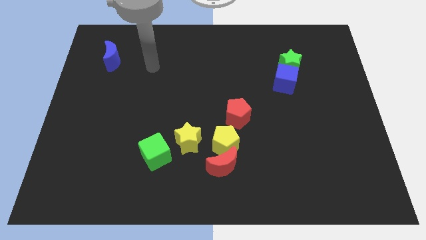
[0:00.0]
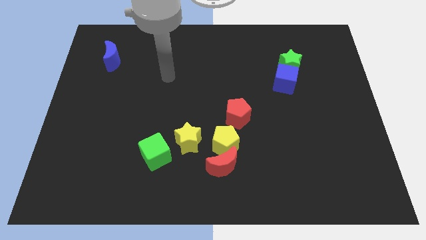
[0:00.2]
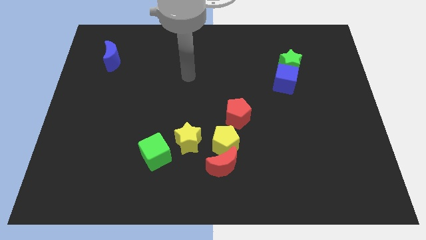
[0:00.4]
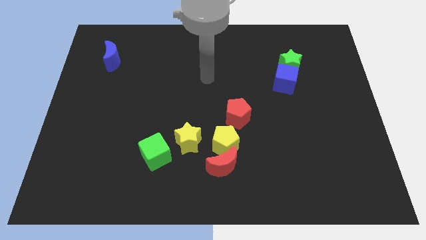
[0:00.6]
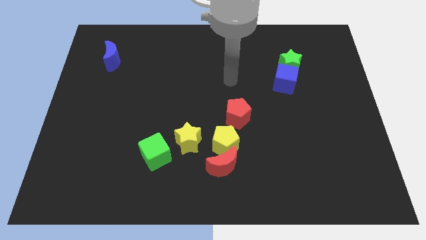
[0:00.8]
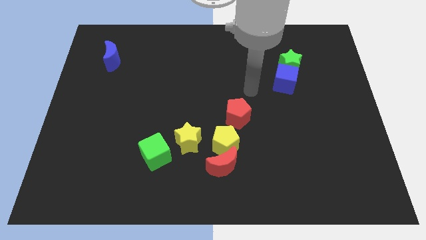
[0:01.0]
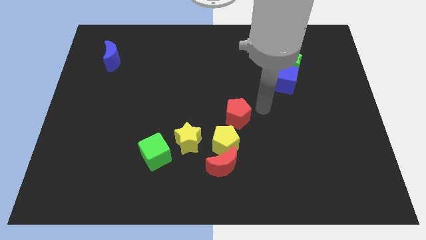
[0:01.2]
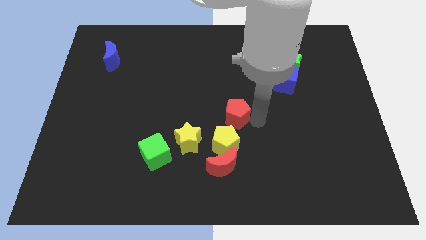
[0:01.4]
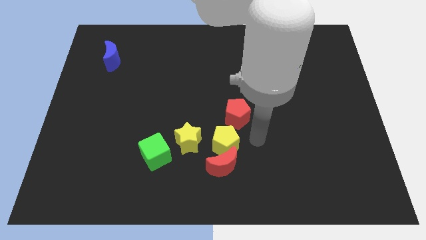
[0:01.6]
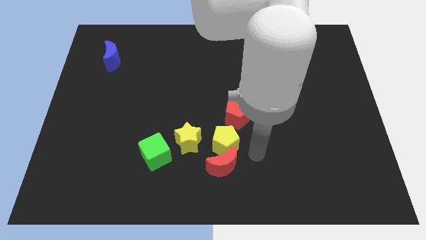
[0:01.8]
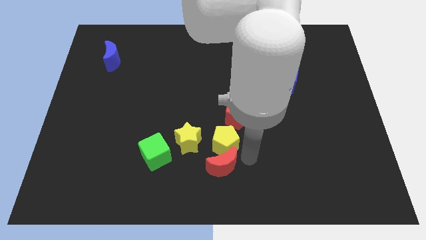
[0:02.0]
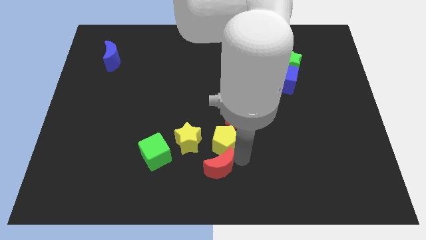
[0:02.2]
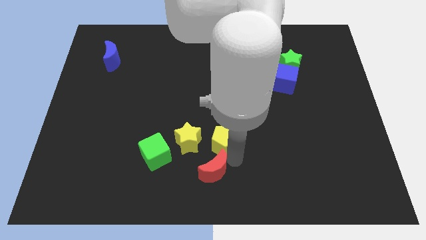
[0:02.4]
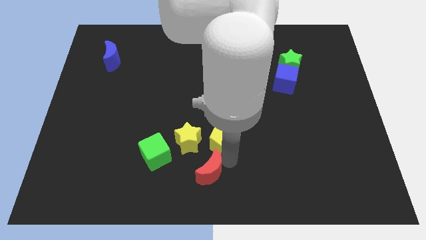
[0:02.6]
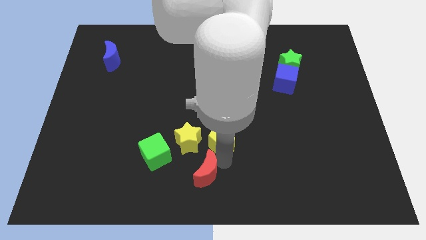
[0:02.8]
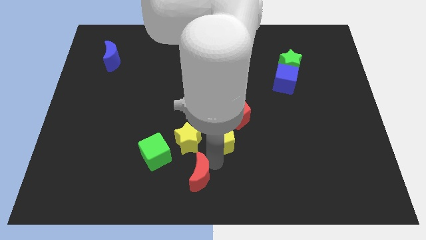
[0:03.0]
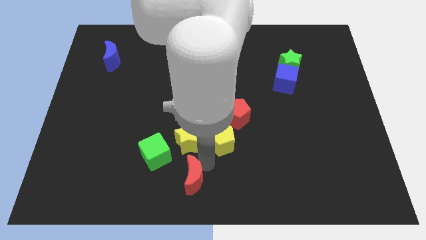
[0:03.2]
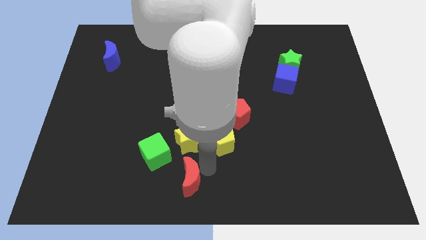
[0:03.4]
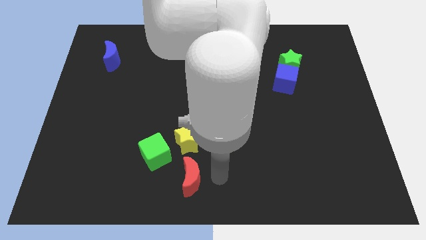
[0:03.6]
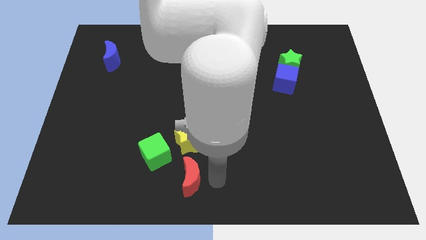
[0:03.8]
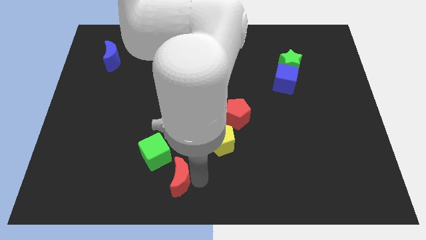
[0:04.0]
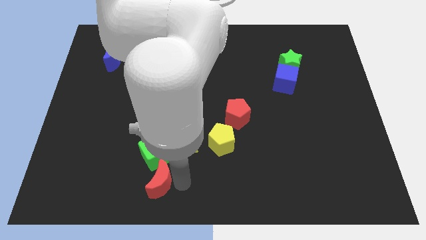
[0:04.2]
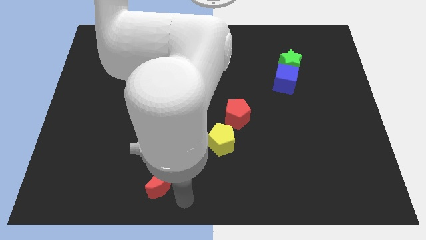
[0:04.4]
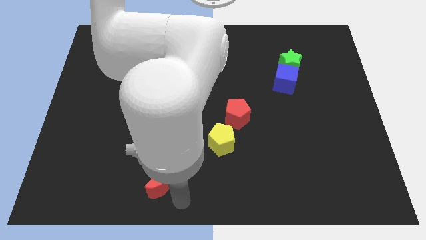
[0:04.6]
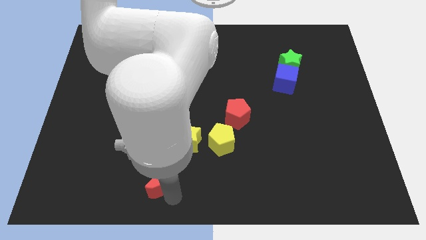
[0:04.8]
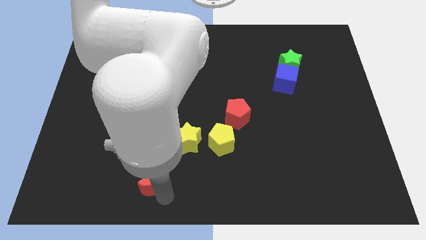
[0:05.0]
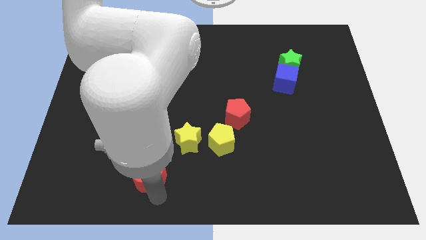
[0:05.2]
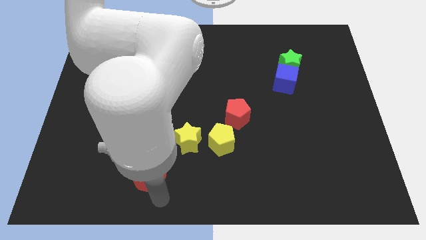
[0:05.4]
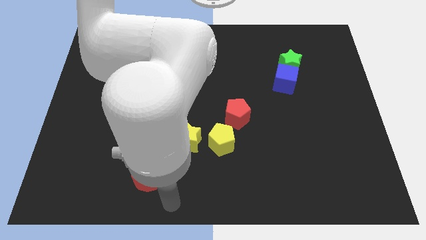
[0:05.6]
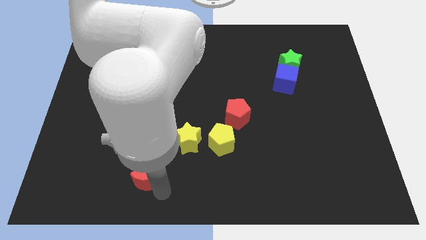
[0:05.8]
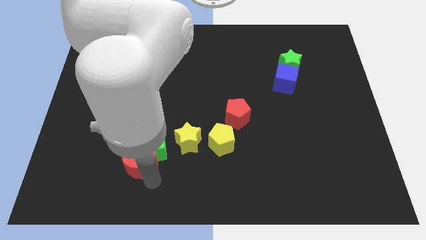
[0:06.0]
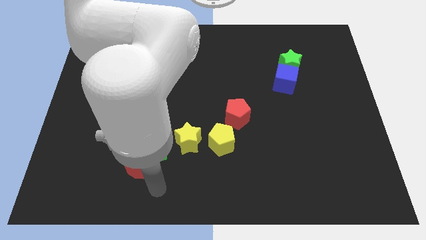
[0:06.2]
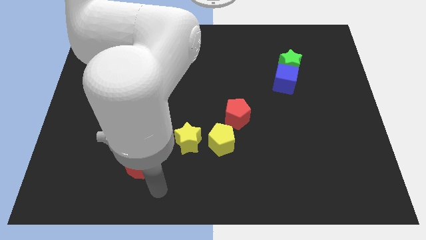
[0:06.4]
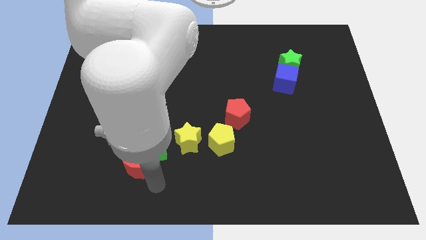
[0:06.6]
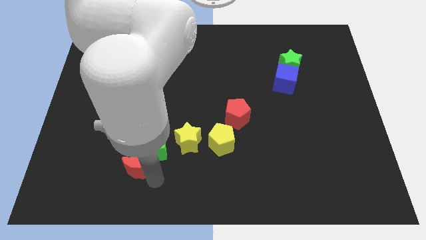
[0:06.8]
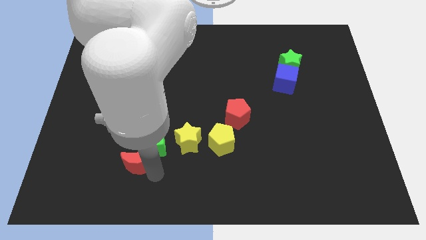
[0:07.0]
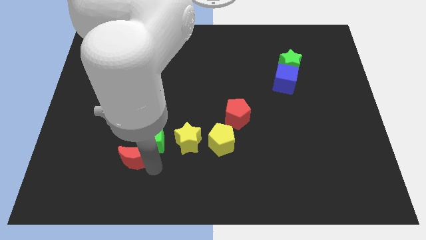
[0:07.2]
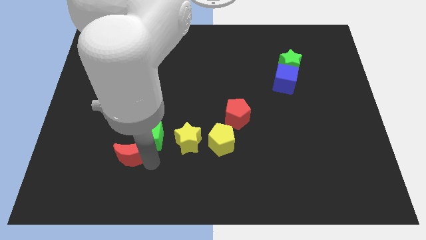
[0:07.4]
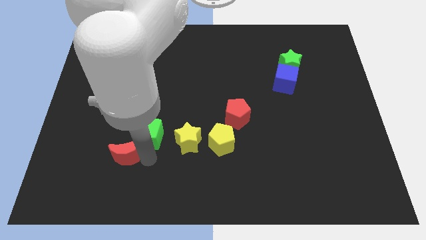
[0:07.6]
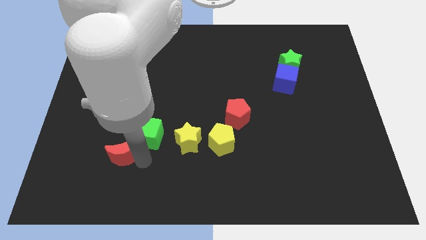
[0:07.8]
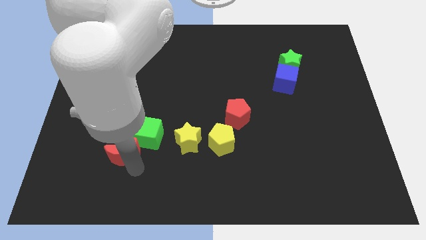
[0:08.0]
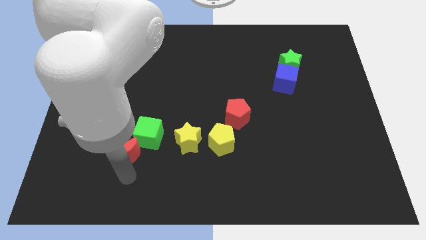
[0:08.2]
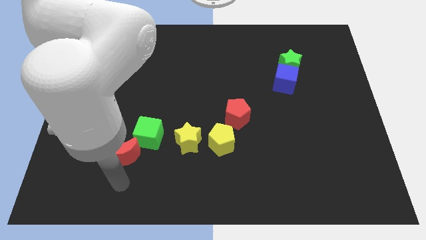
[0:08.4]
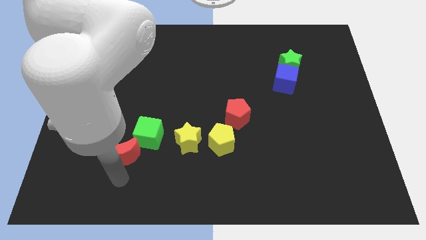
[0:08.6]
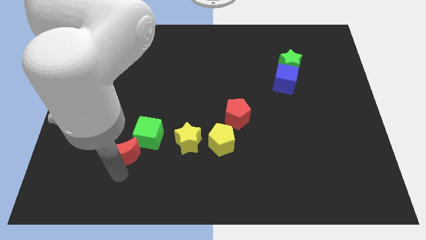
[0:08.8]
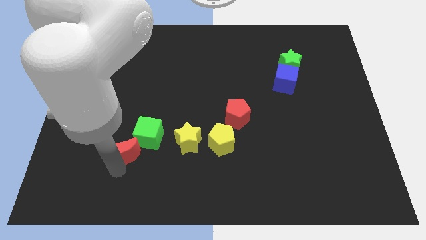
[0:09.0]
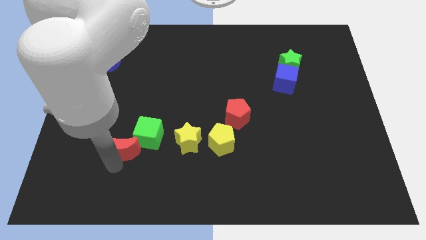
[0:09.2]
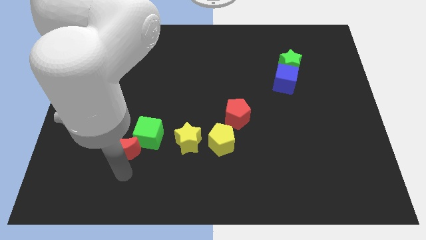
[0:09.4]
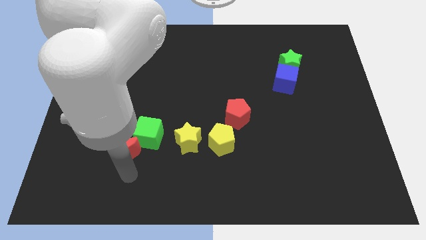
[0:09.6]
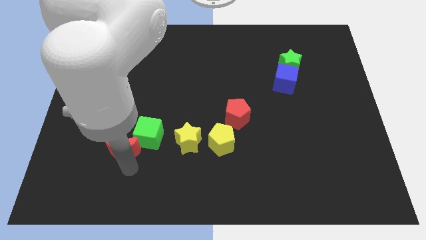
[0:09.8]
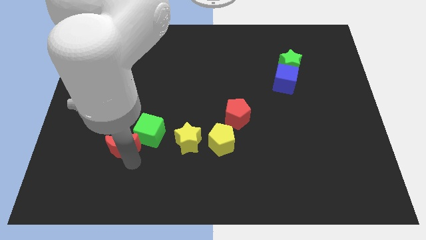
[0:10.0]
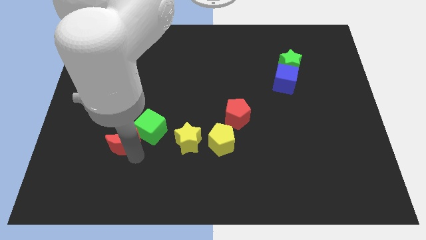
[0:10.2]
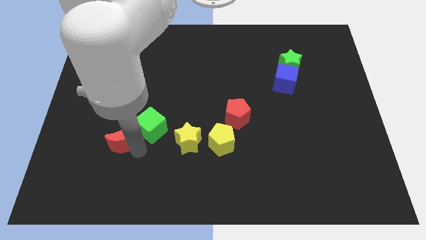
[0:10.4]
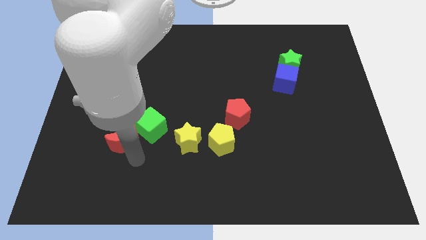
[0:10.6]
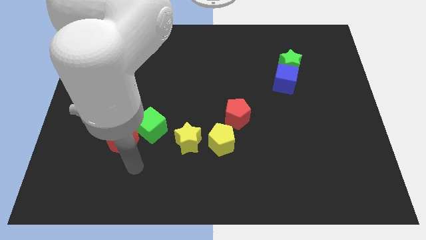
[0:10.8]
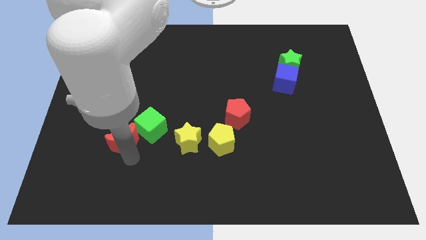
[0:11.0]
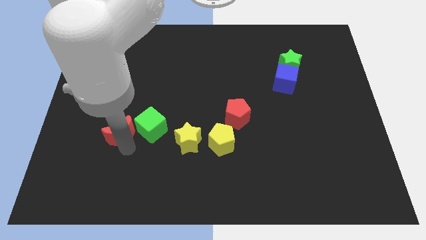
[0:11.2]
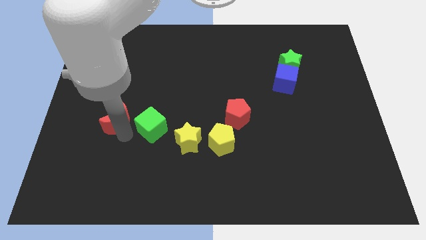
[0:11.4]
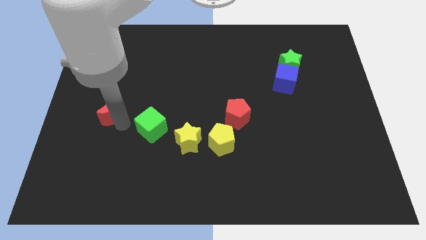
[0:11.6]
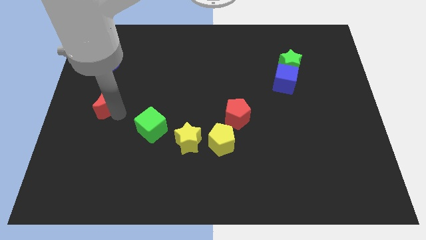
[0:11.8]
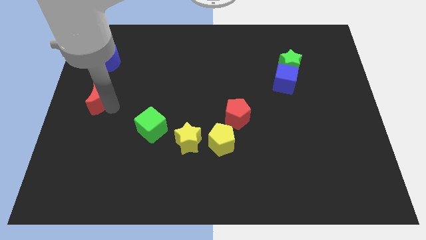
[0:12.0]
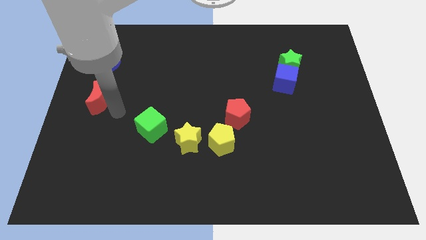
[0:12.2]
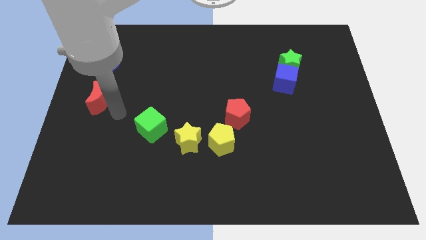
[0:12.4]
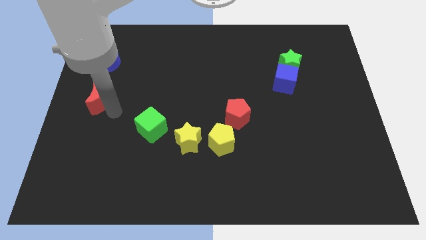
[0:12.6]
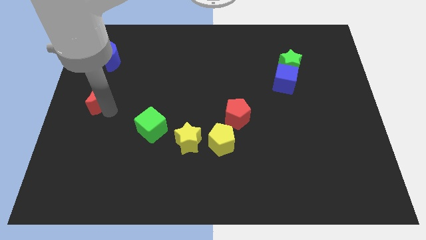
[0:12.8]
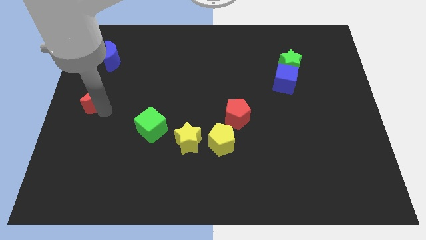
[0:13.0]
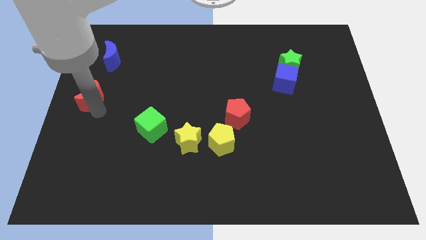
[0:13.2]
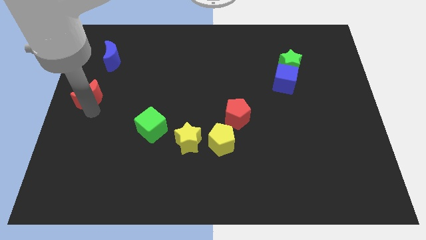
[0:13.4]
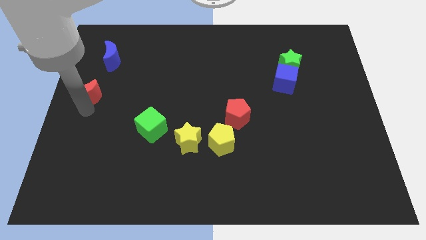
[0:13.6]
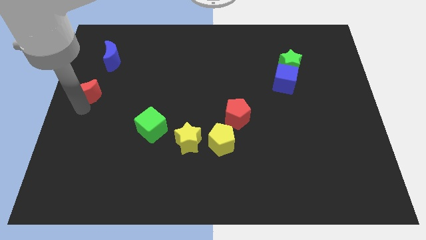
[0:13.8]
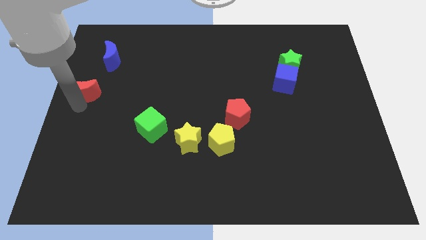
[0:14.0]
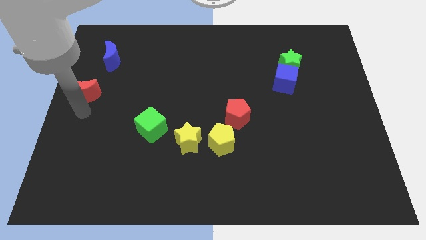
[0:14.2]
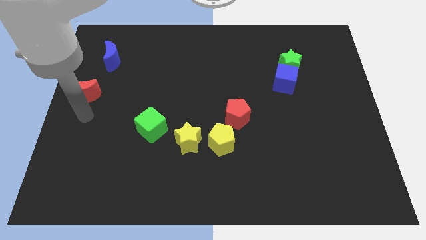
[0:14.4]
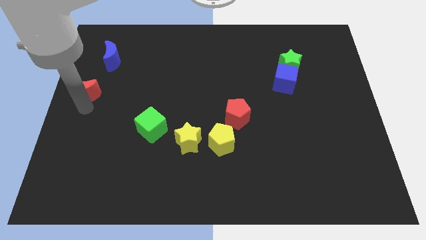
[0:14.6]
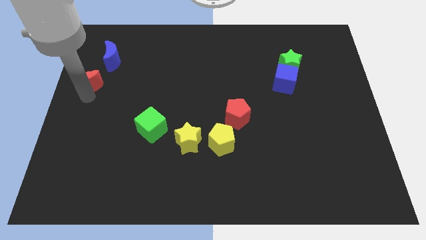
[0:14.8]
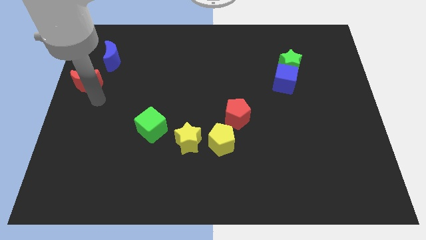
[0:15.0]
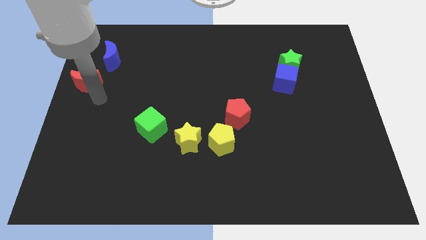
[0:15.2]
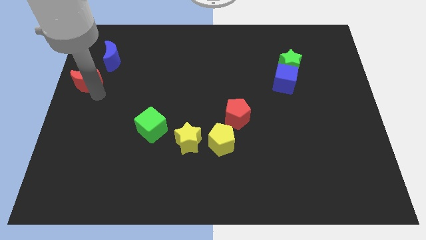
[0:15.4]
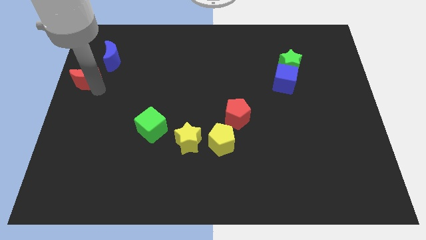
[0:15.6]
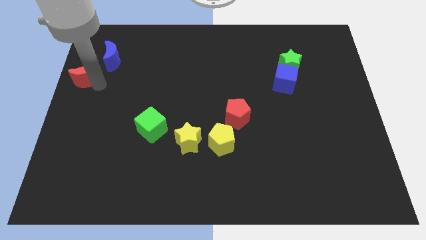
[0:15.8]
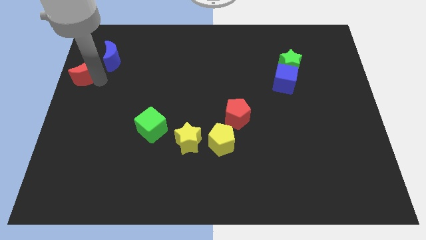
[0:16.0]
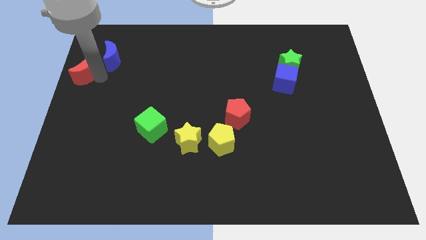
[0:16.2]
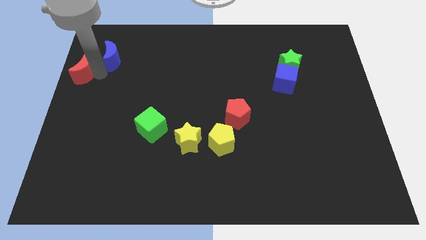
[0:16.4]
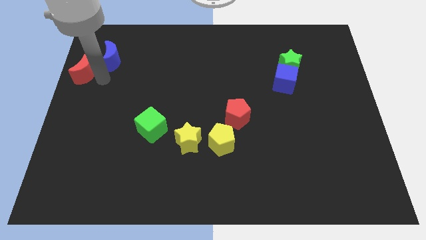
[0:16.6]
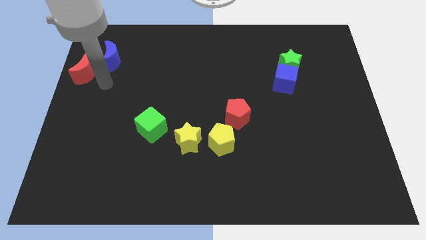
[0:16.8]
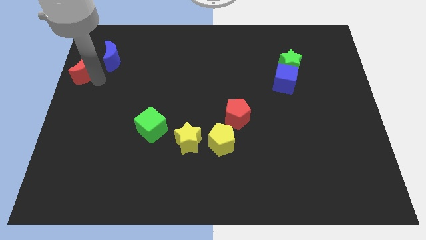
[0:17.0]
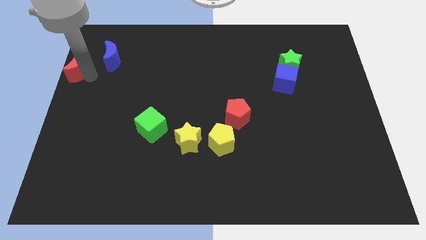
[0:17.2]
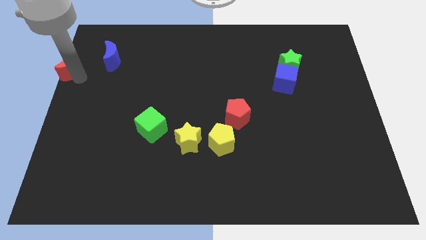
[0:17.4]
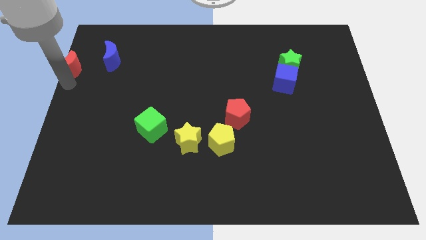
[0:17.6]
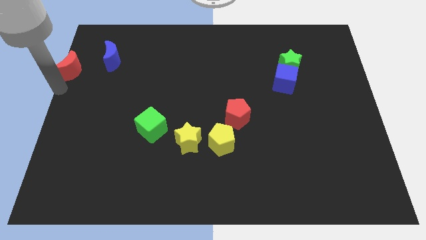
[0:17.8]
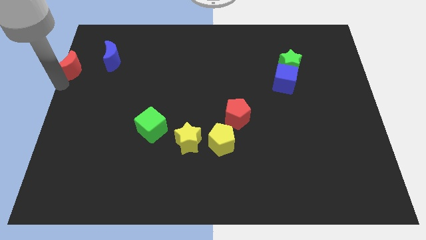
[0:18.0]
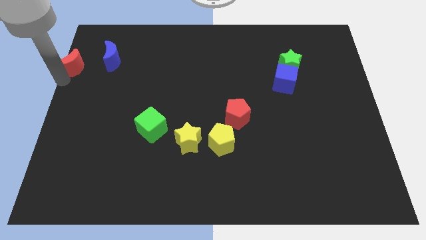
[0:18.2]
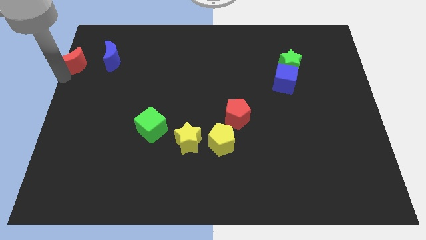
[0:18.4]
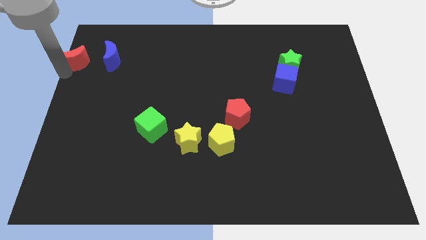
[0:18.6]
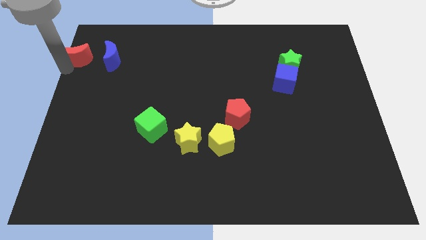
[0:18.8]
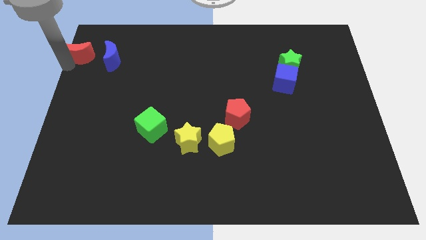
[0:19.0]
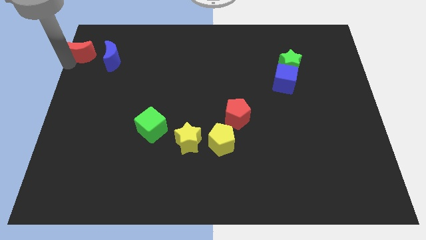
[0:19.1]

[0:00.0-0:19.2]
slide the red moon to the top left
